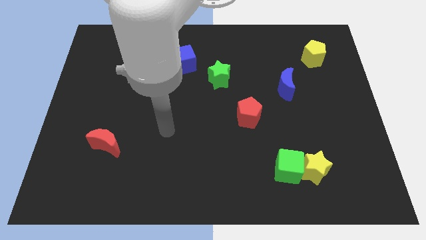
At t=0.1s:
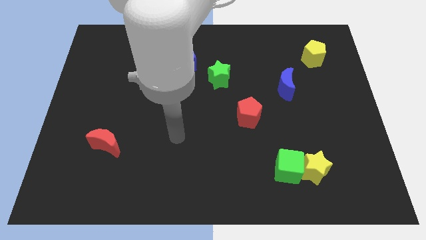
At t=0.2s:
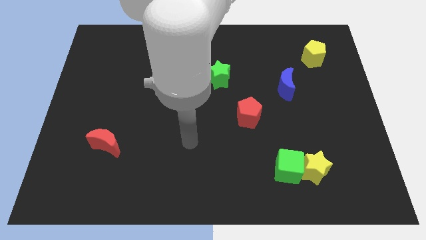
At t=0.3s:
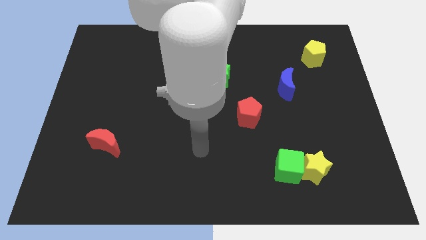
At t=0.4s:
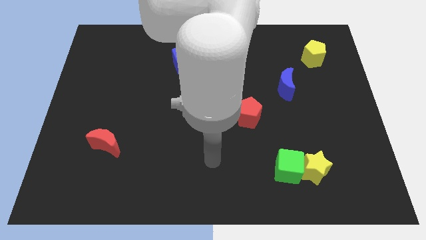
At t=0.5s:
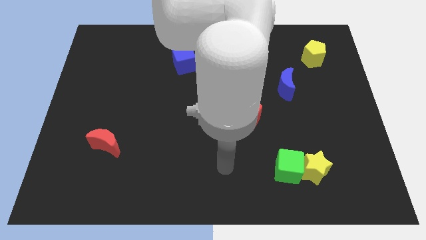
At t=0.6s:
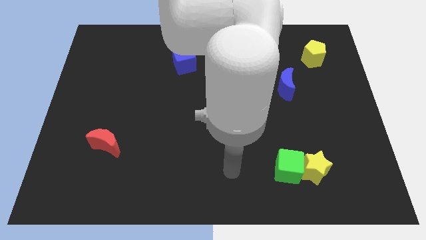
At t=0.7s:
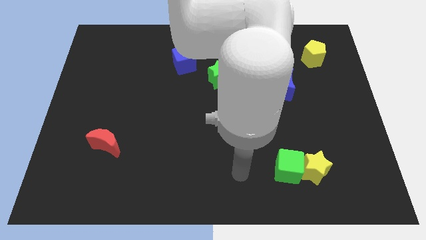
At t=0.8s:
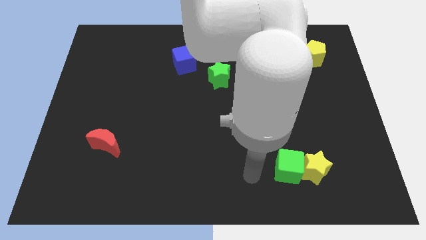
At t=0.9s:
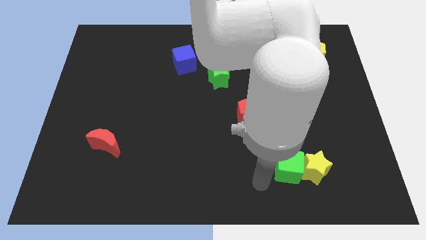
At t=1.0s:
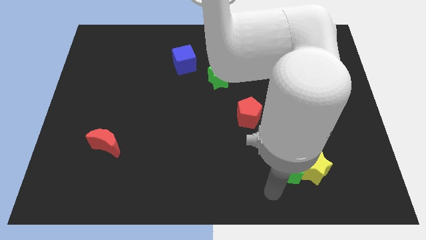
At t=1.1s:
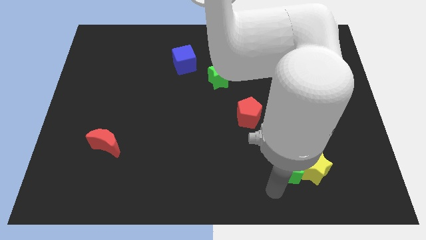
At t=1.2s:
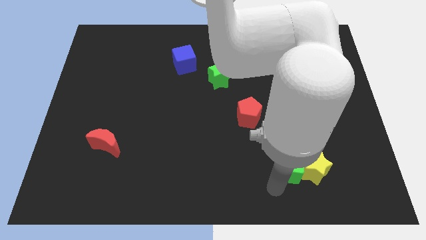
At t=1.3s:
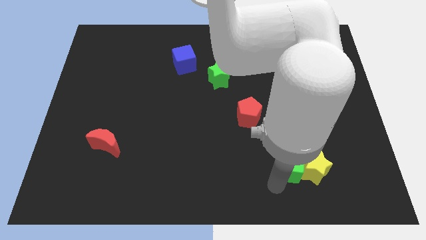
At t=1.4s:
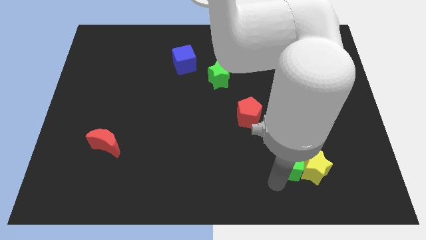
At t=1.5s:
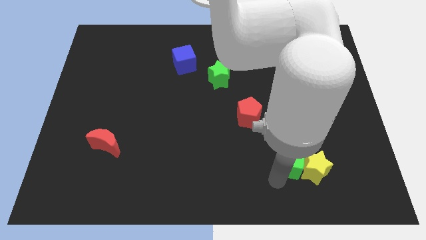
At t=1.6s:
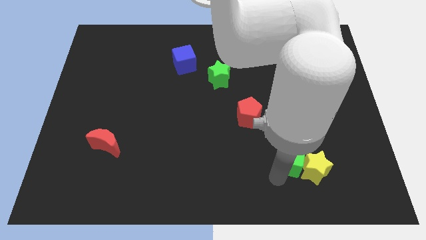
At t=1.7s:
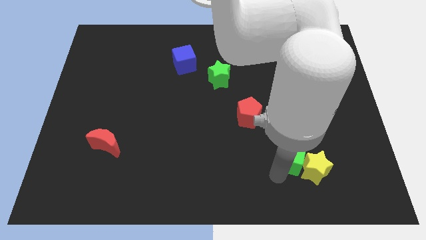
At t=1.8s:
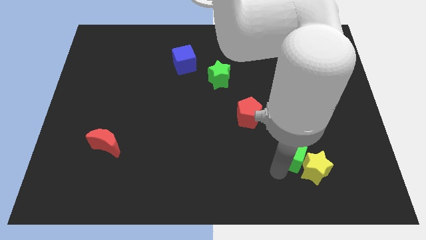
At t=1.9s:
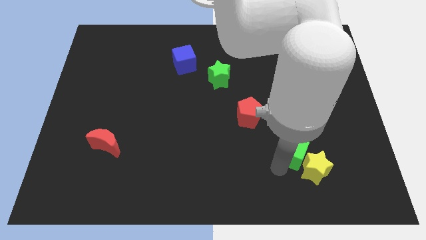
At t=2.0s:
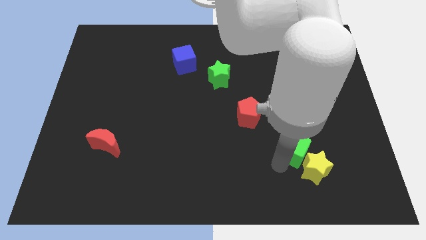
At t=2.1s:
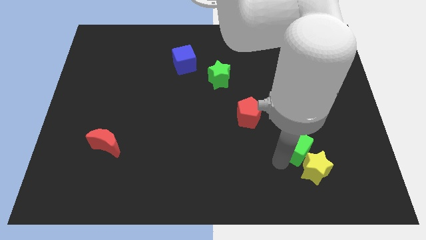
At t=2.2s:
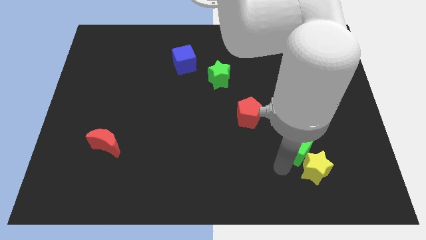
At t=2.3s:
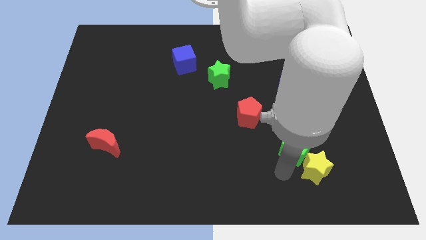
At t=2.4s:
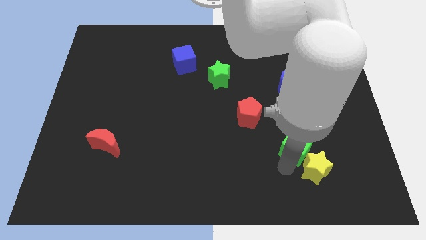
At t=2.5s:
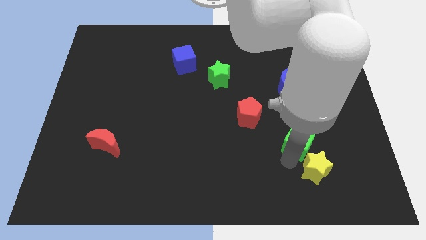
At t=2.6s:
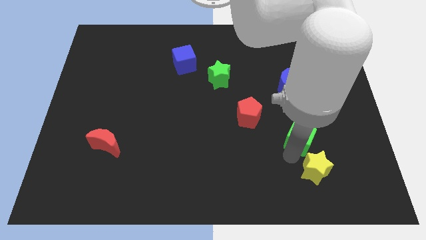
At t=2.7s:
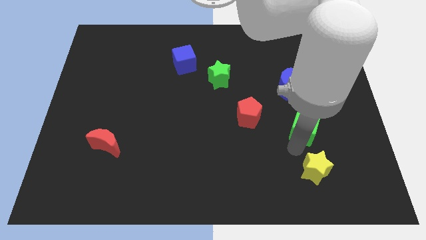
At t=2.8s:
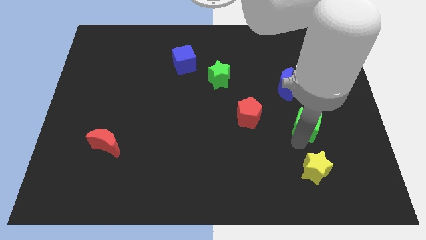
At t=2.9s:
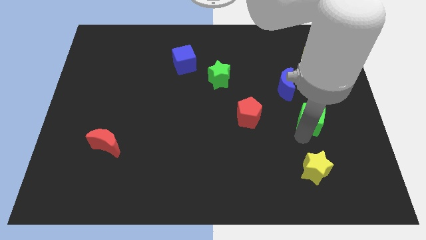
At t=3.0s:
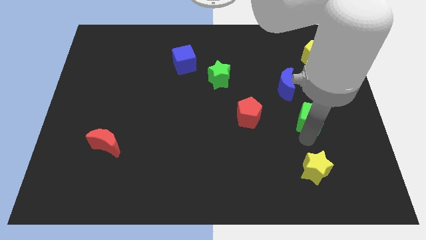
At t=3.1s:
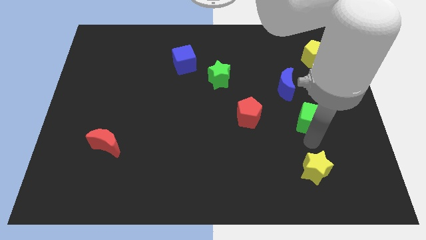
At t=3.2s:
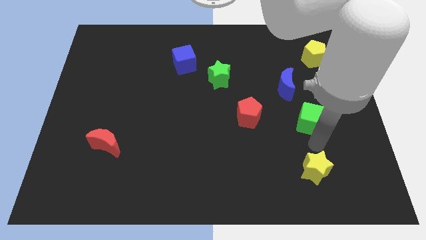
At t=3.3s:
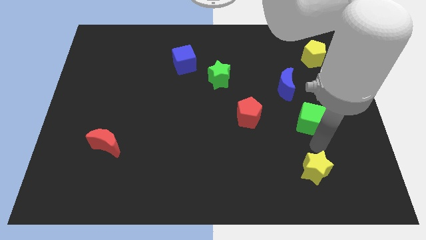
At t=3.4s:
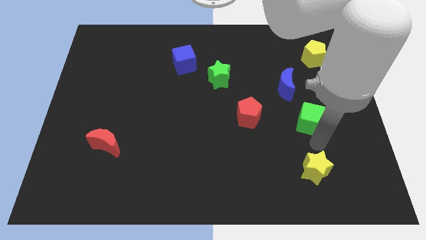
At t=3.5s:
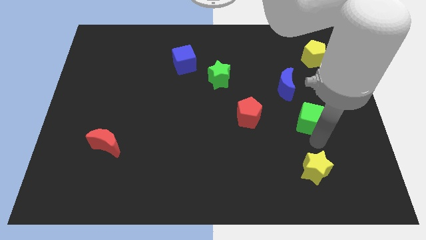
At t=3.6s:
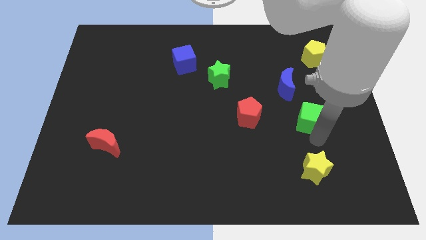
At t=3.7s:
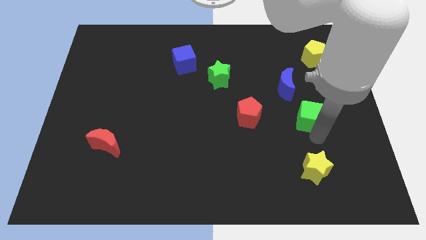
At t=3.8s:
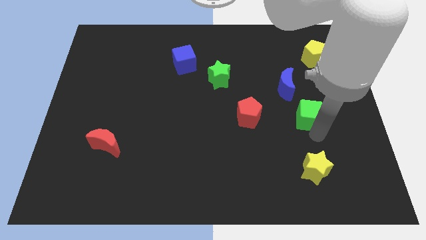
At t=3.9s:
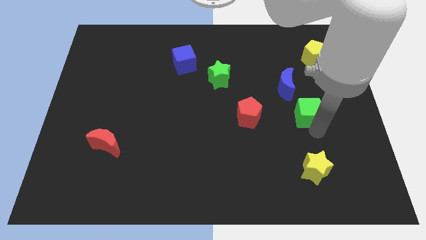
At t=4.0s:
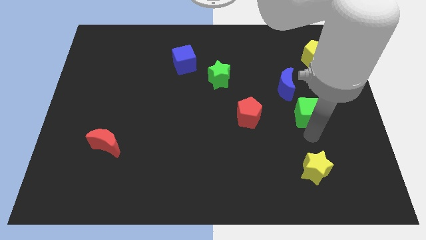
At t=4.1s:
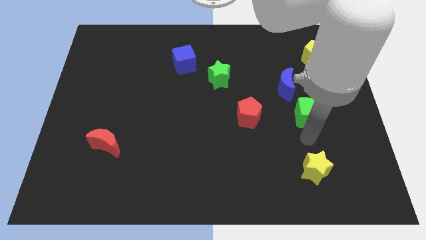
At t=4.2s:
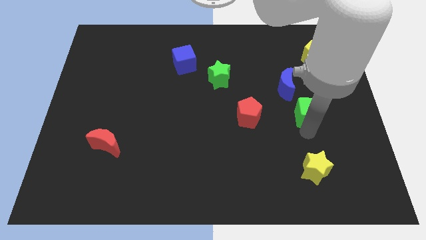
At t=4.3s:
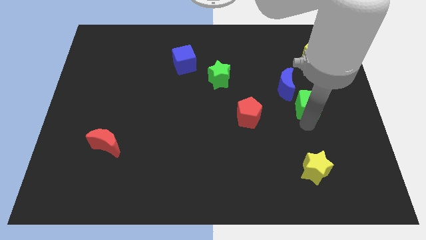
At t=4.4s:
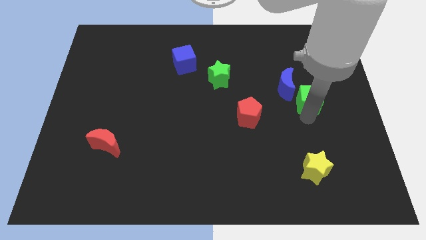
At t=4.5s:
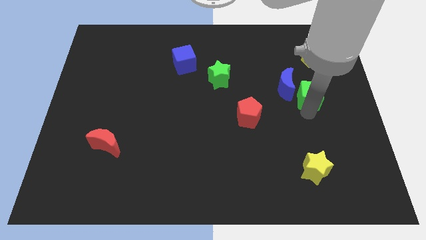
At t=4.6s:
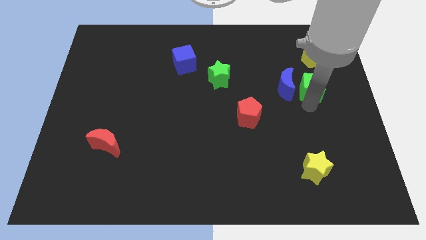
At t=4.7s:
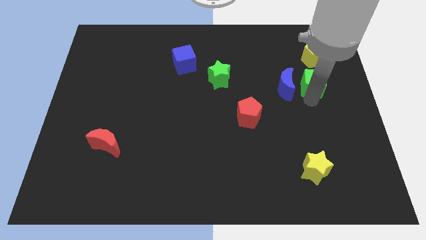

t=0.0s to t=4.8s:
push the green cube diagonally up and to the right of the blue moon

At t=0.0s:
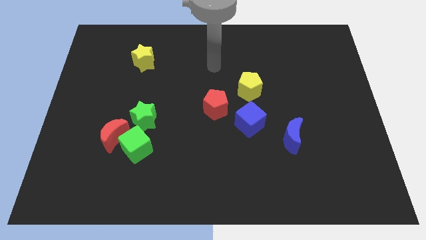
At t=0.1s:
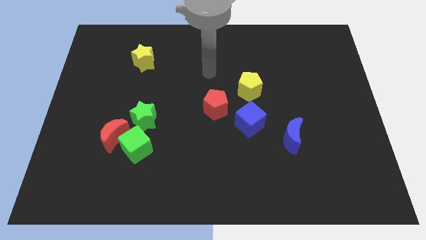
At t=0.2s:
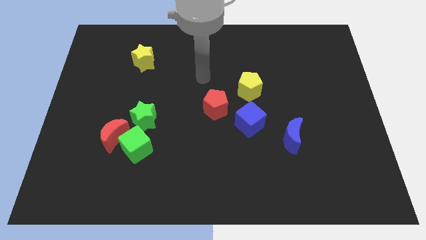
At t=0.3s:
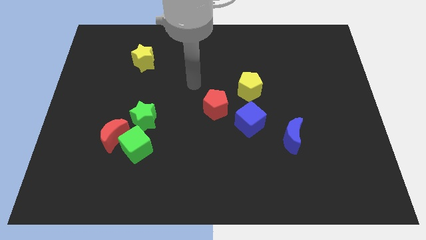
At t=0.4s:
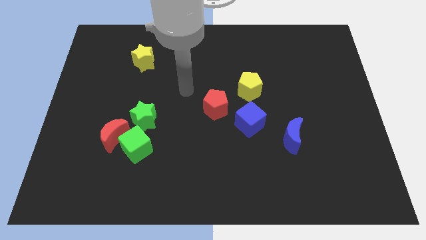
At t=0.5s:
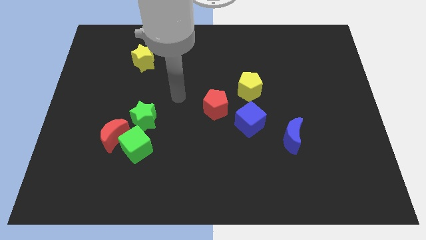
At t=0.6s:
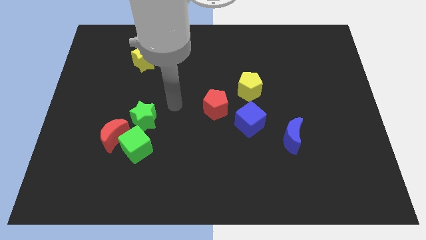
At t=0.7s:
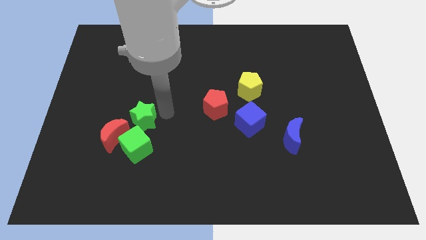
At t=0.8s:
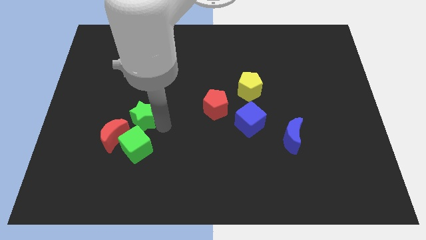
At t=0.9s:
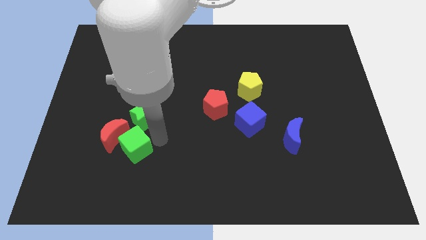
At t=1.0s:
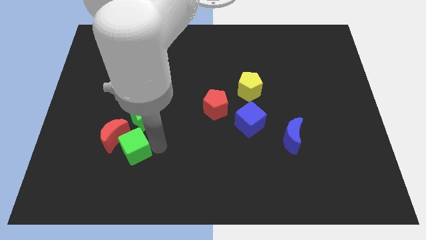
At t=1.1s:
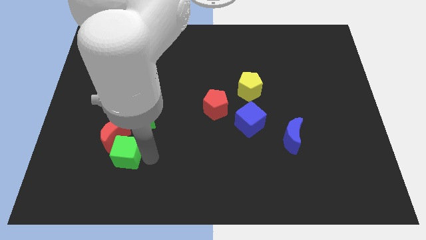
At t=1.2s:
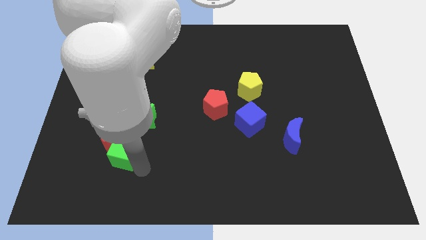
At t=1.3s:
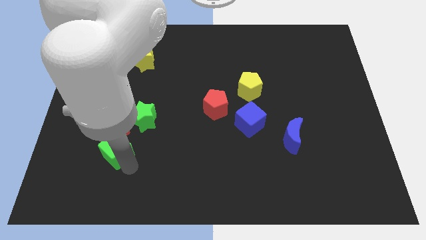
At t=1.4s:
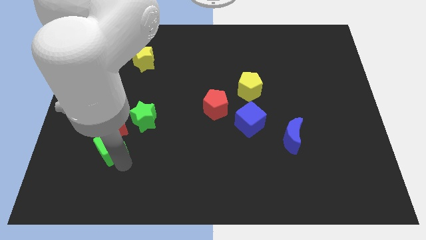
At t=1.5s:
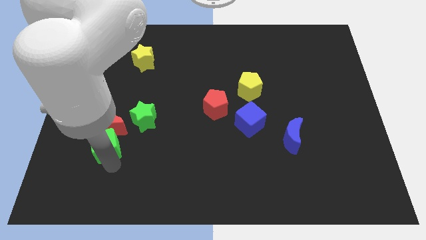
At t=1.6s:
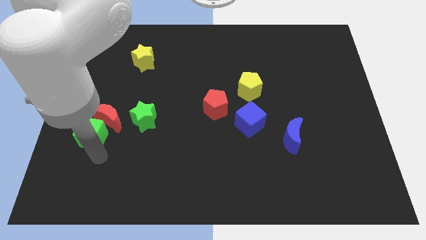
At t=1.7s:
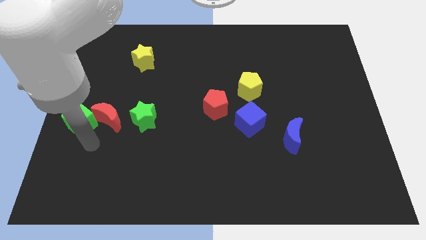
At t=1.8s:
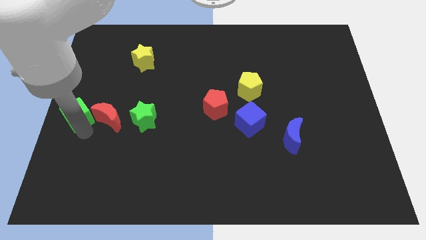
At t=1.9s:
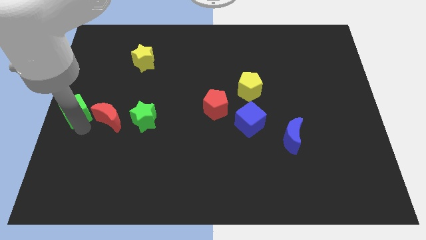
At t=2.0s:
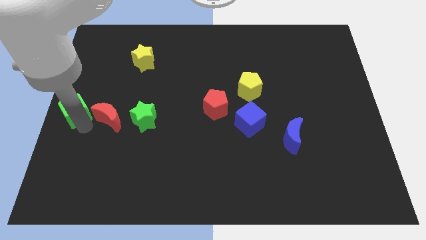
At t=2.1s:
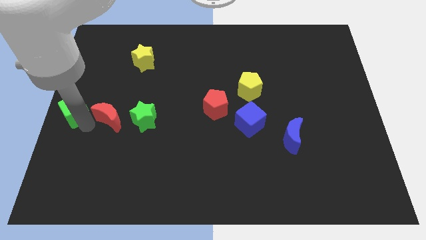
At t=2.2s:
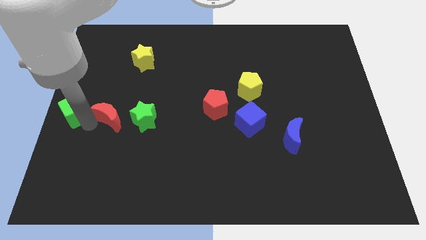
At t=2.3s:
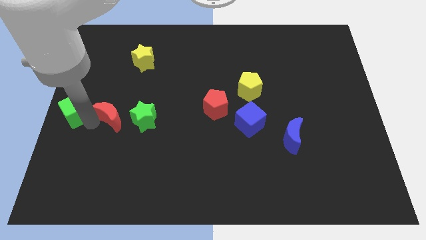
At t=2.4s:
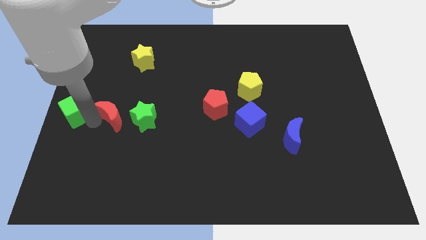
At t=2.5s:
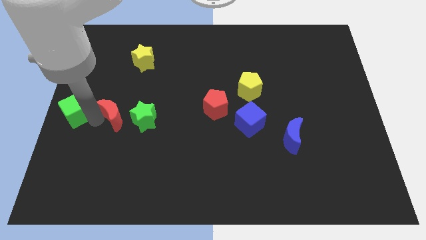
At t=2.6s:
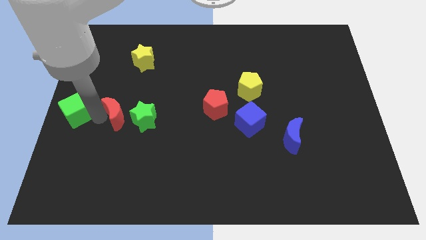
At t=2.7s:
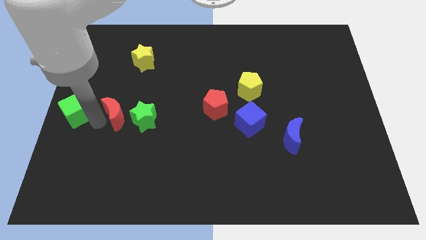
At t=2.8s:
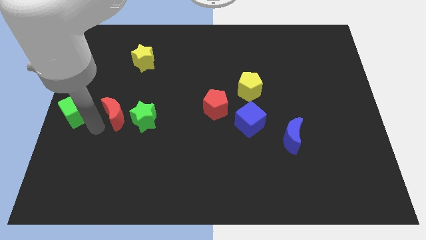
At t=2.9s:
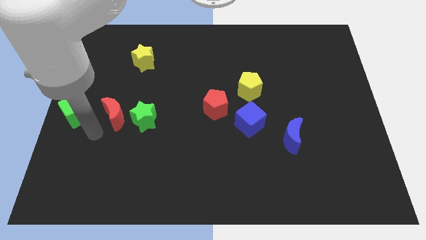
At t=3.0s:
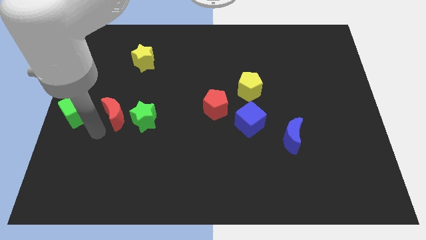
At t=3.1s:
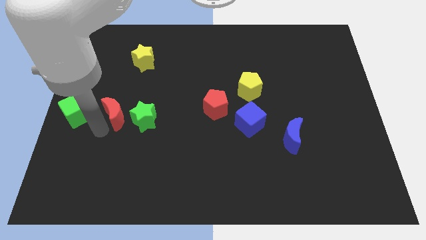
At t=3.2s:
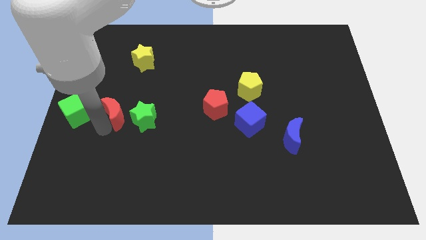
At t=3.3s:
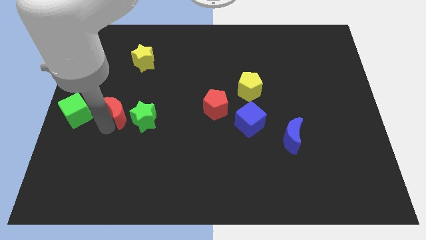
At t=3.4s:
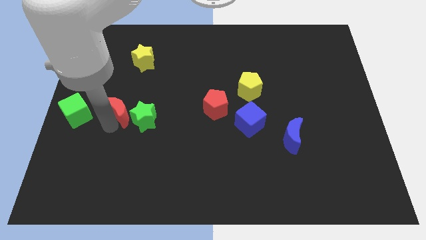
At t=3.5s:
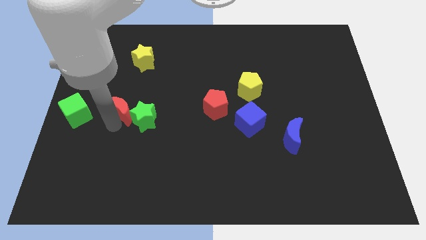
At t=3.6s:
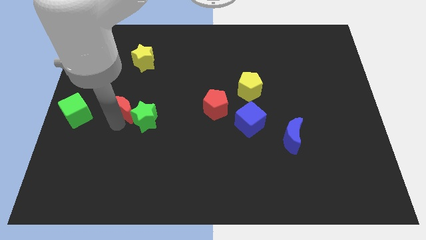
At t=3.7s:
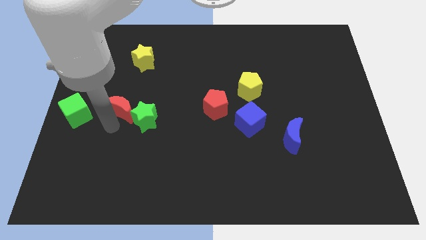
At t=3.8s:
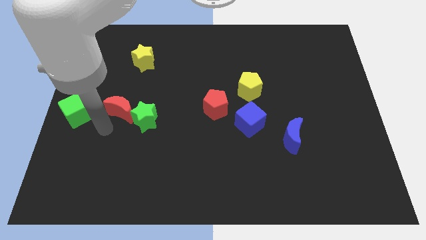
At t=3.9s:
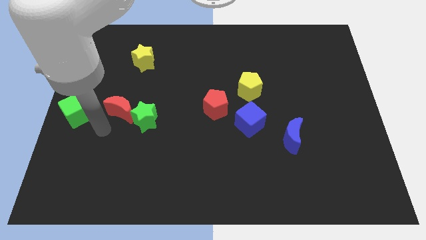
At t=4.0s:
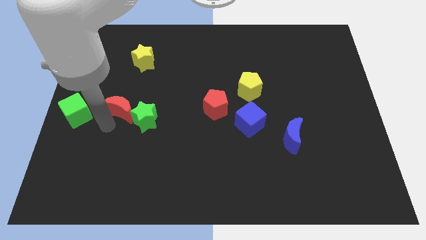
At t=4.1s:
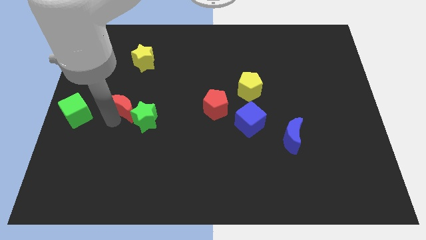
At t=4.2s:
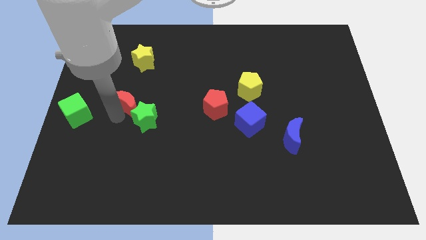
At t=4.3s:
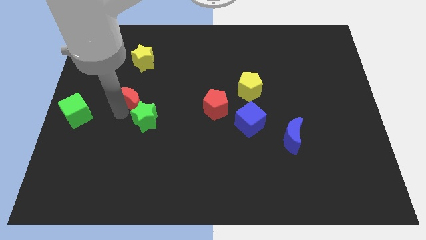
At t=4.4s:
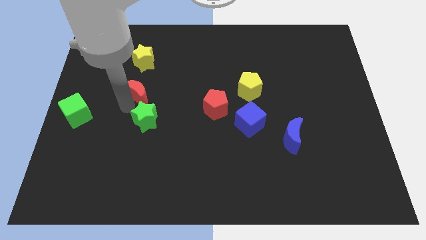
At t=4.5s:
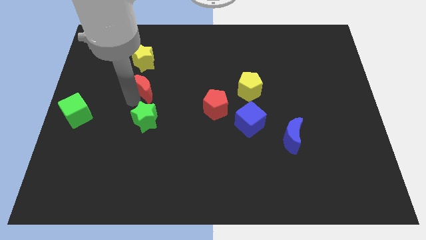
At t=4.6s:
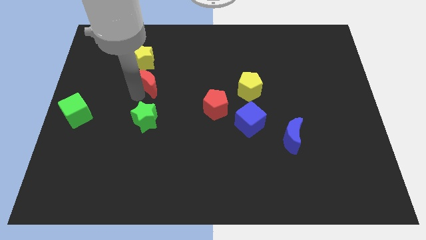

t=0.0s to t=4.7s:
put the red moon to the bottom right side of the yellow star
